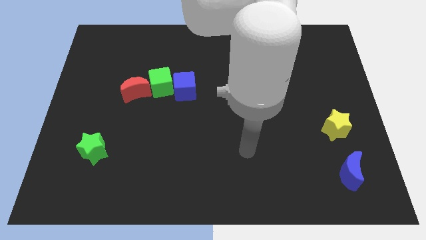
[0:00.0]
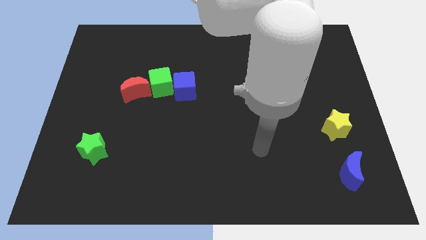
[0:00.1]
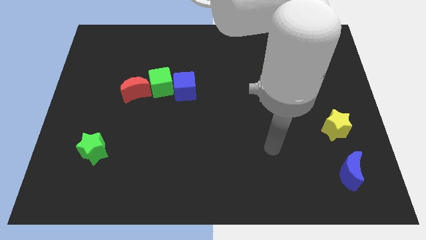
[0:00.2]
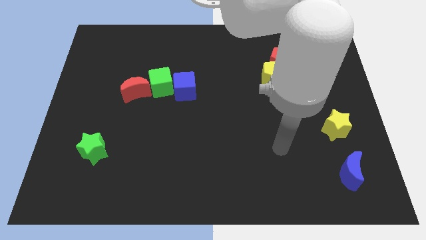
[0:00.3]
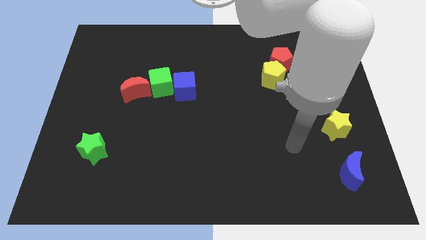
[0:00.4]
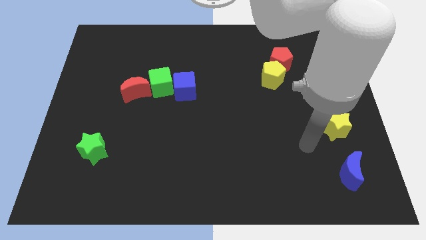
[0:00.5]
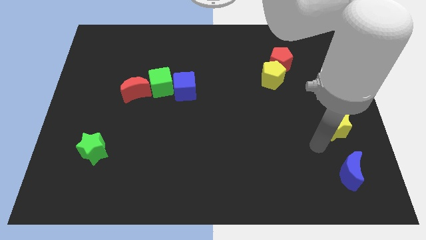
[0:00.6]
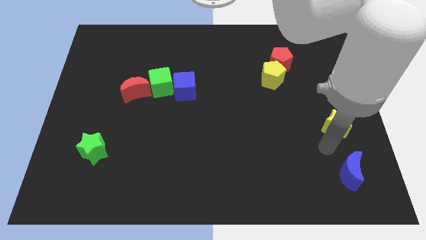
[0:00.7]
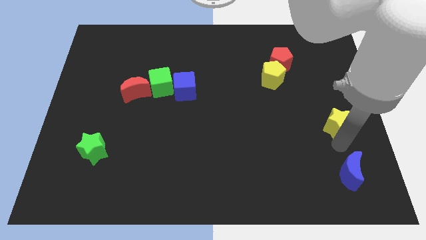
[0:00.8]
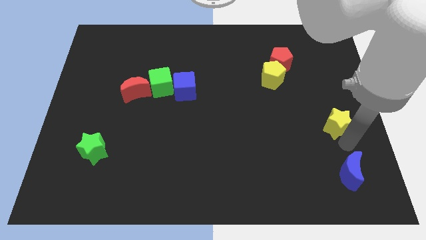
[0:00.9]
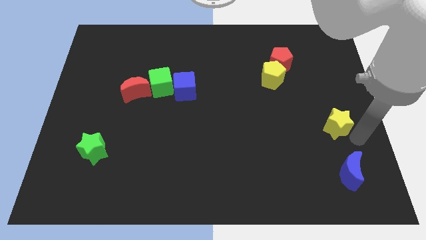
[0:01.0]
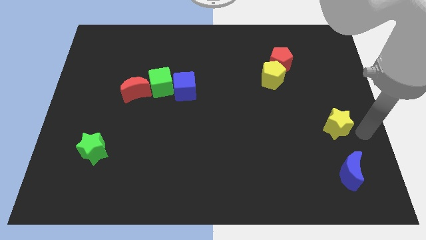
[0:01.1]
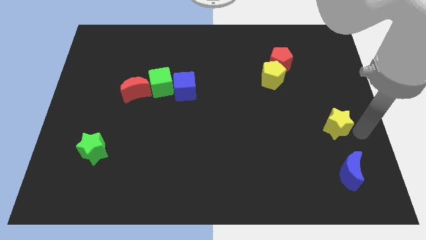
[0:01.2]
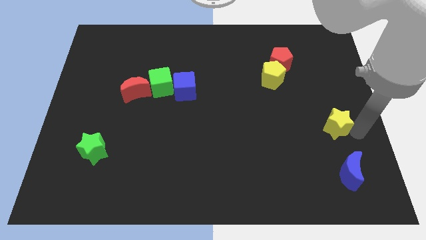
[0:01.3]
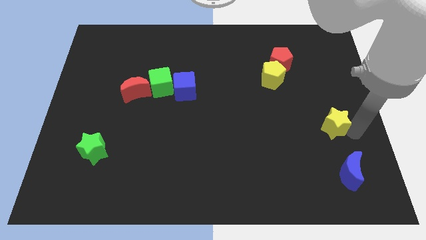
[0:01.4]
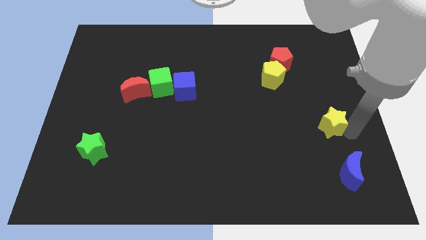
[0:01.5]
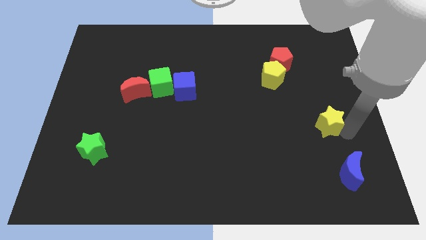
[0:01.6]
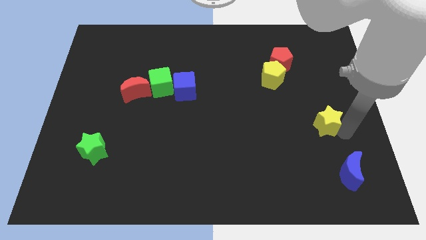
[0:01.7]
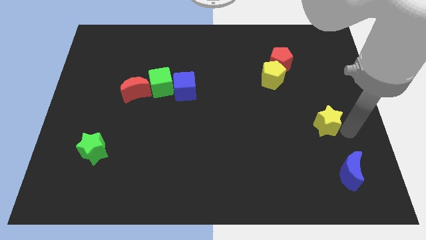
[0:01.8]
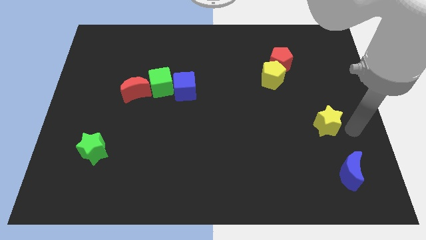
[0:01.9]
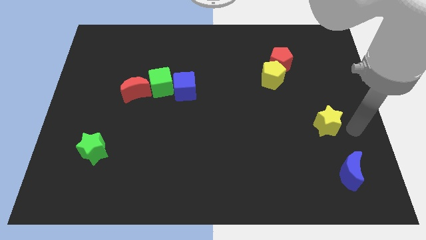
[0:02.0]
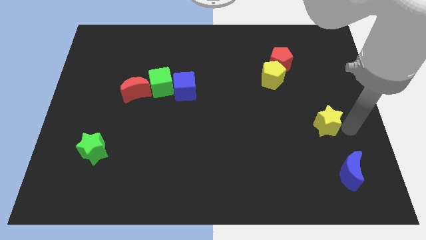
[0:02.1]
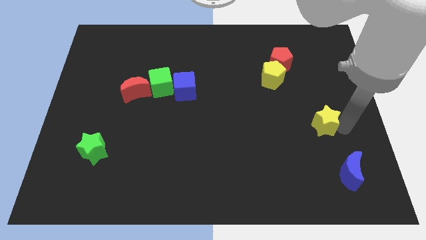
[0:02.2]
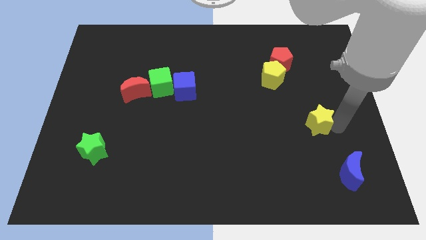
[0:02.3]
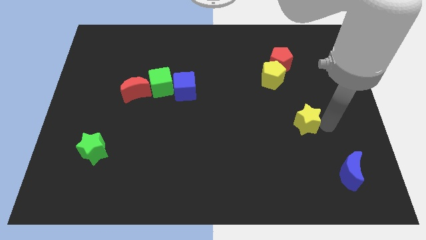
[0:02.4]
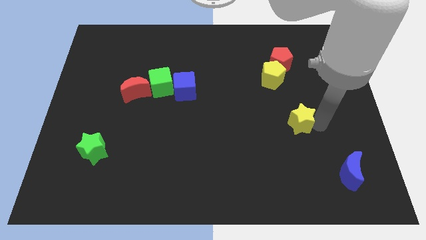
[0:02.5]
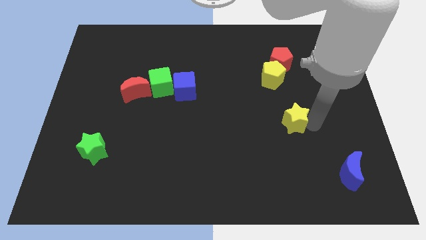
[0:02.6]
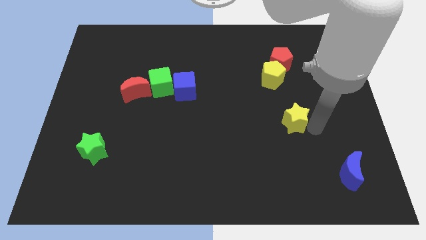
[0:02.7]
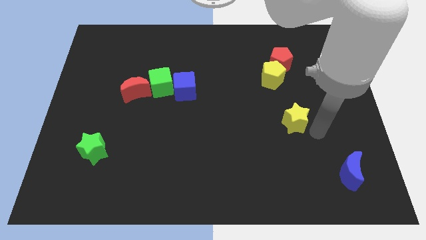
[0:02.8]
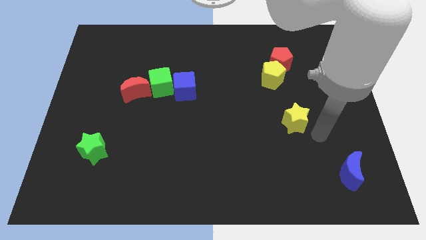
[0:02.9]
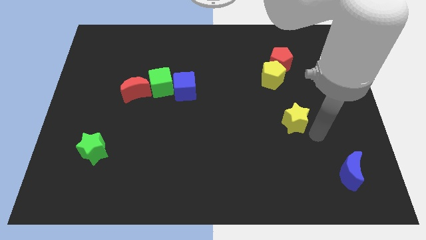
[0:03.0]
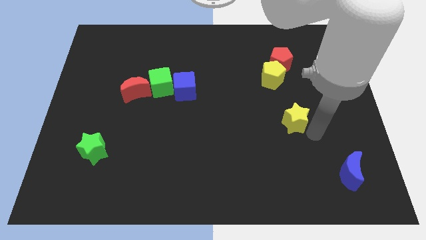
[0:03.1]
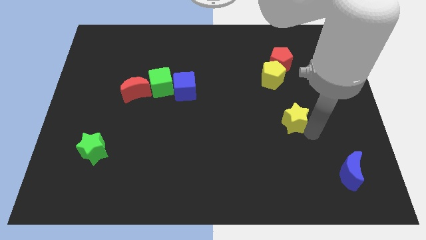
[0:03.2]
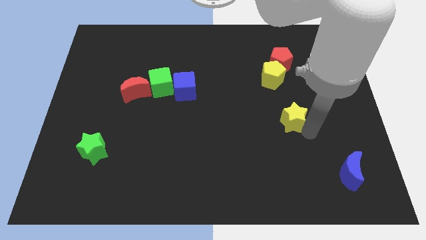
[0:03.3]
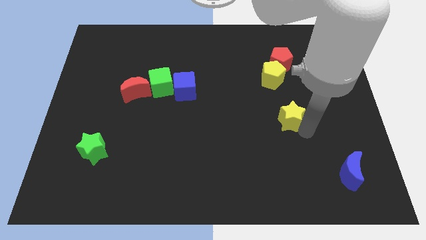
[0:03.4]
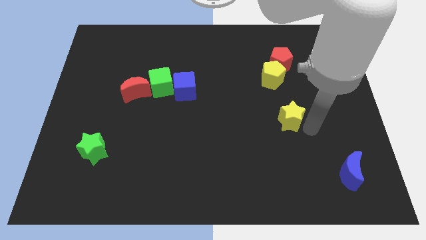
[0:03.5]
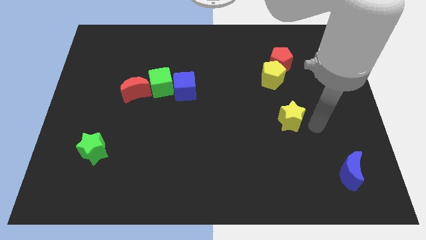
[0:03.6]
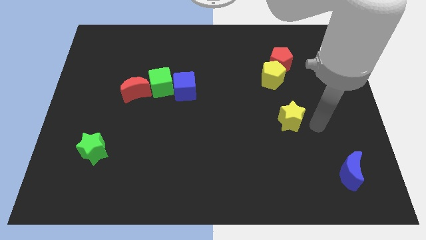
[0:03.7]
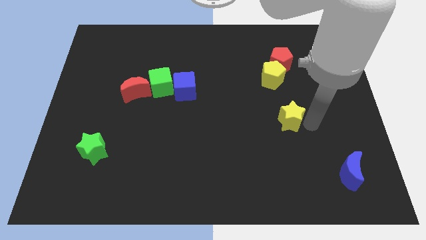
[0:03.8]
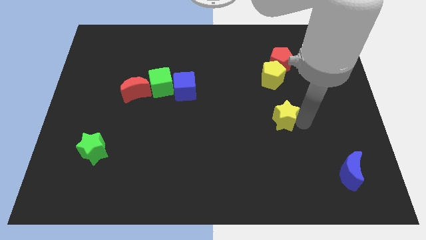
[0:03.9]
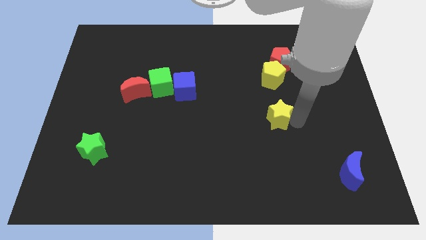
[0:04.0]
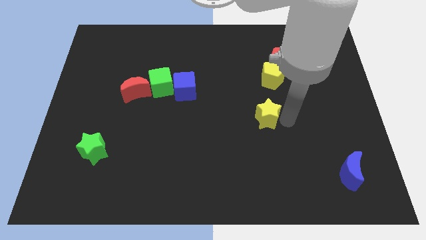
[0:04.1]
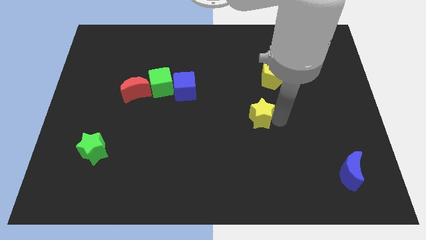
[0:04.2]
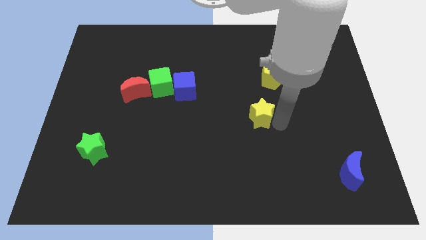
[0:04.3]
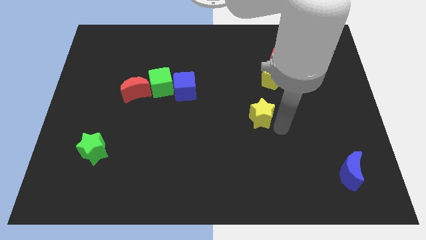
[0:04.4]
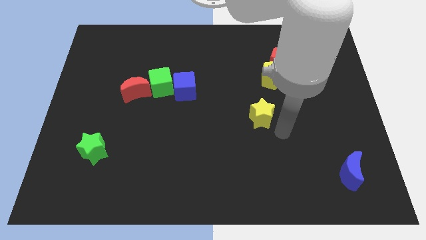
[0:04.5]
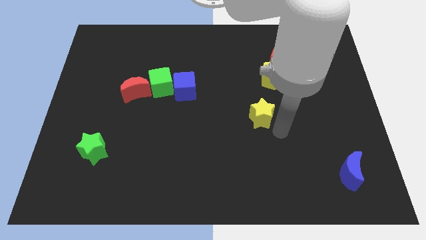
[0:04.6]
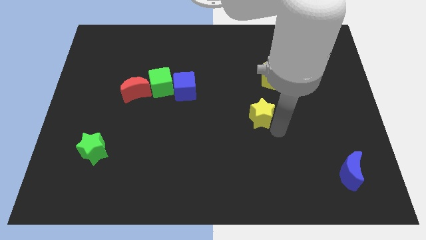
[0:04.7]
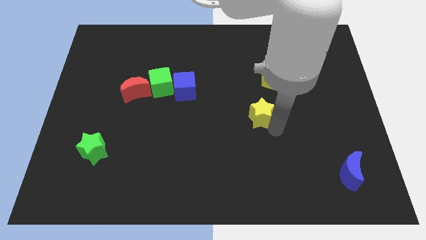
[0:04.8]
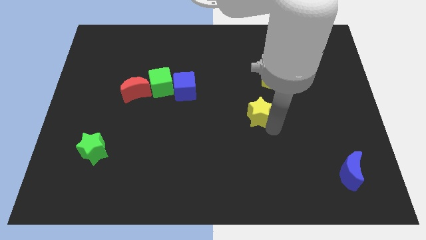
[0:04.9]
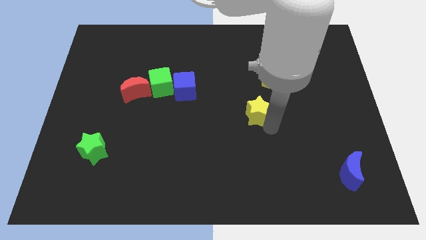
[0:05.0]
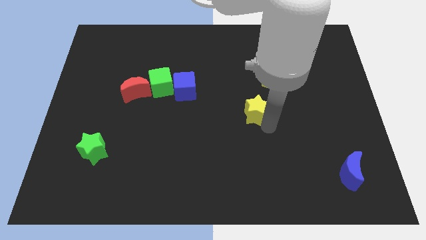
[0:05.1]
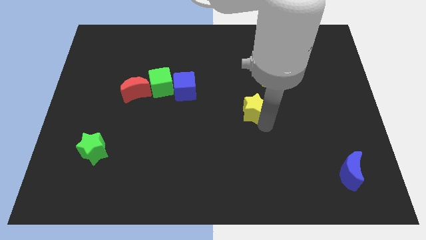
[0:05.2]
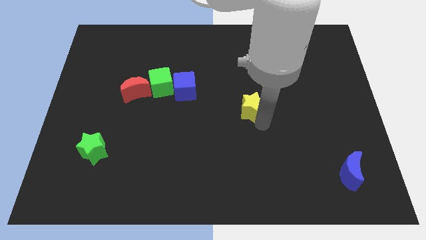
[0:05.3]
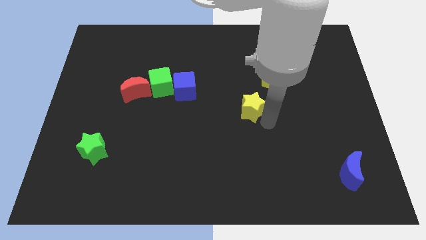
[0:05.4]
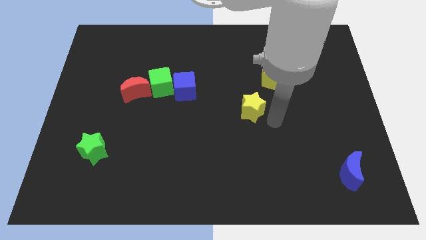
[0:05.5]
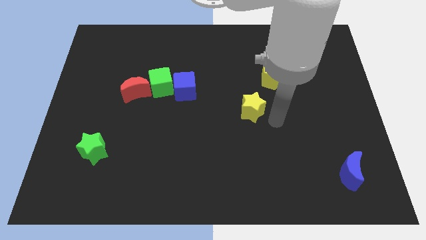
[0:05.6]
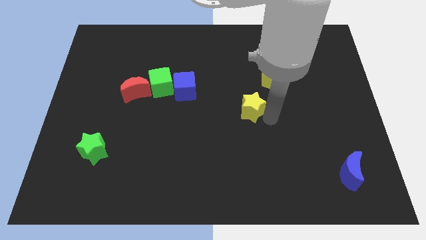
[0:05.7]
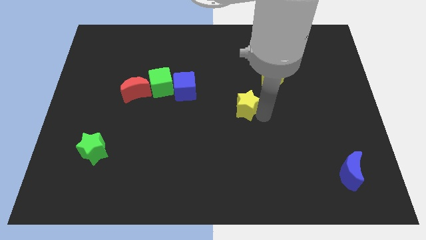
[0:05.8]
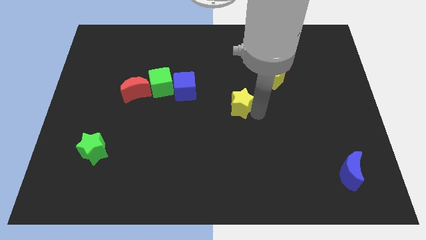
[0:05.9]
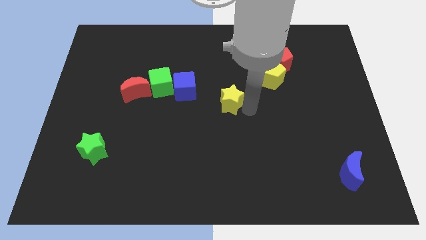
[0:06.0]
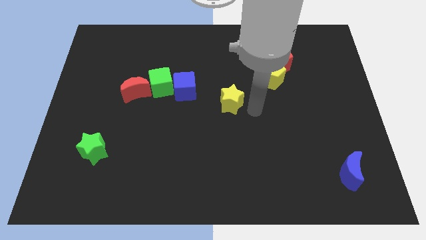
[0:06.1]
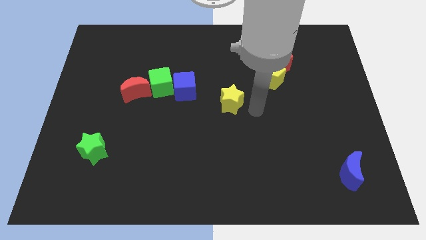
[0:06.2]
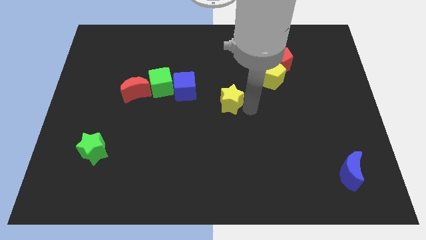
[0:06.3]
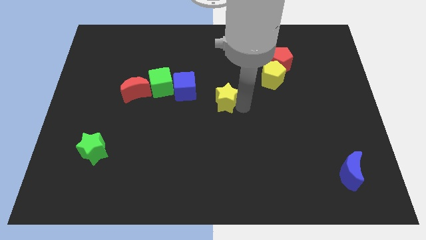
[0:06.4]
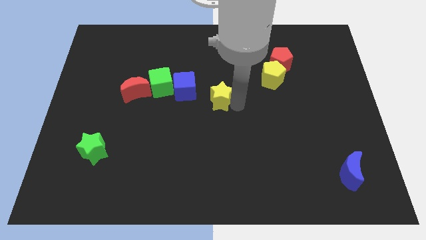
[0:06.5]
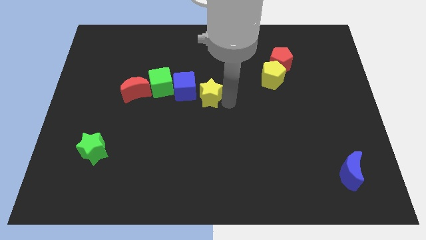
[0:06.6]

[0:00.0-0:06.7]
put the yellow star towards the blue cube
